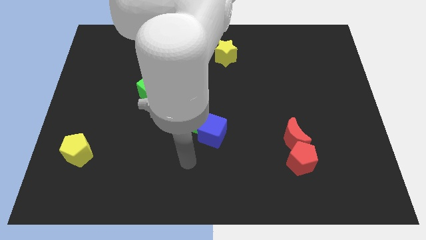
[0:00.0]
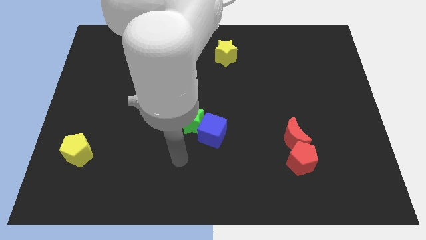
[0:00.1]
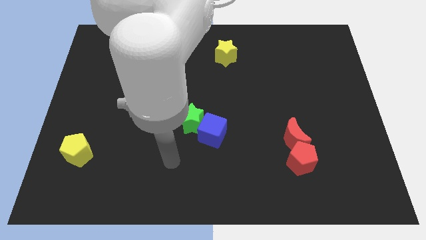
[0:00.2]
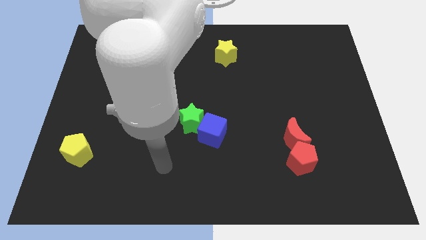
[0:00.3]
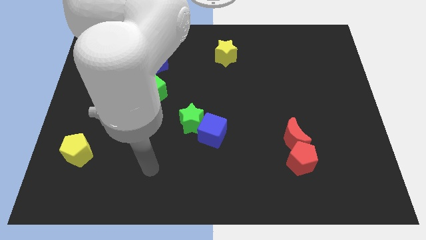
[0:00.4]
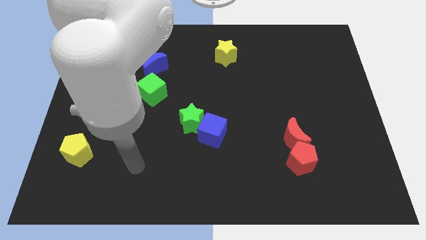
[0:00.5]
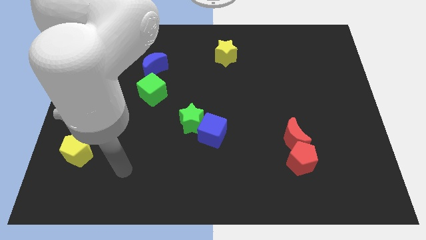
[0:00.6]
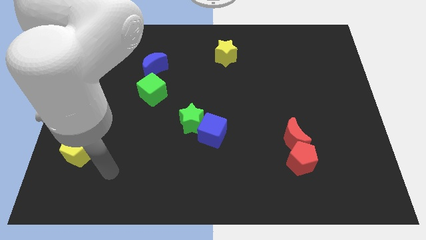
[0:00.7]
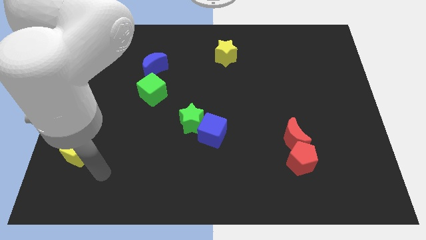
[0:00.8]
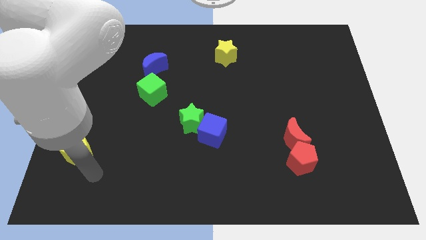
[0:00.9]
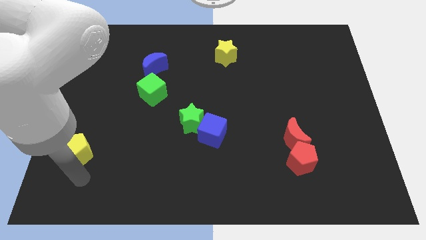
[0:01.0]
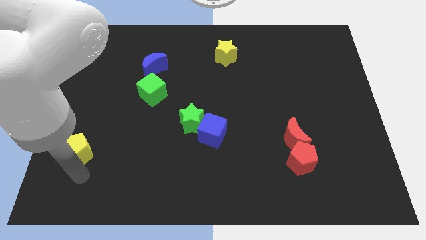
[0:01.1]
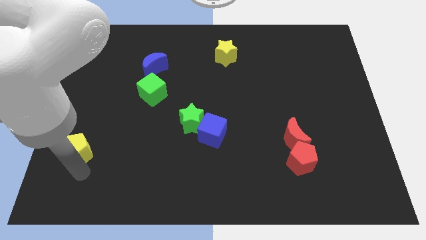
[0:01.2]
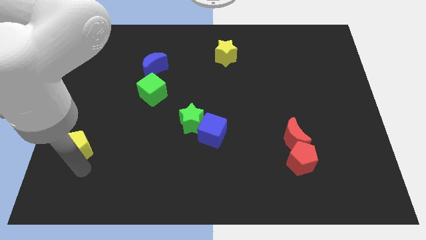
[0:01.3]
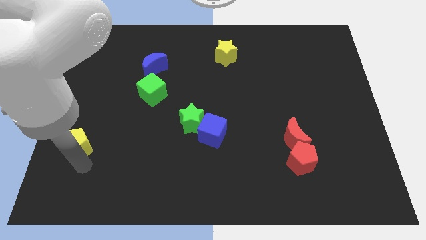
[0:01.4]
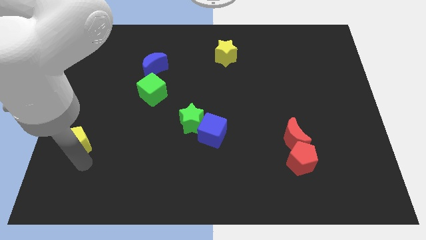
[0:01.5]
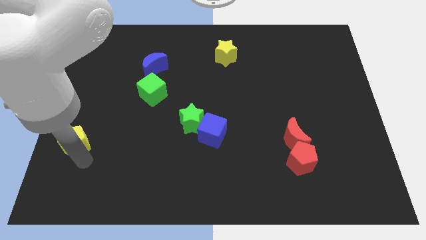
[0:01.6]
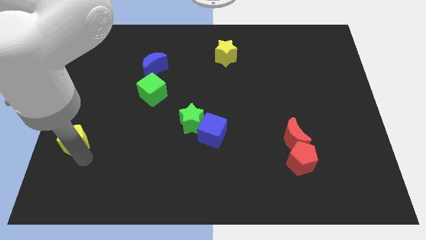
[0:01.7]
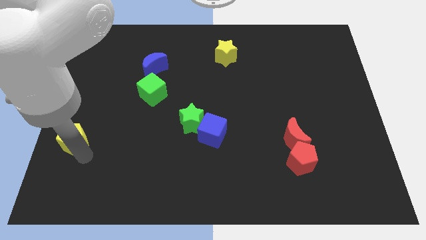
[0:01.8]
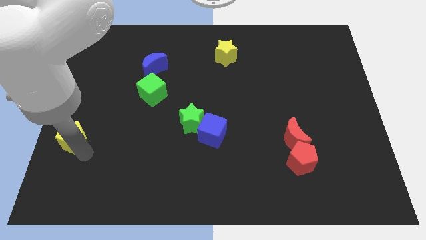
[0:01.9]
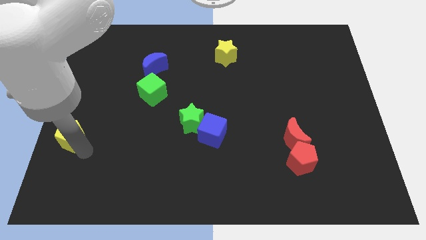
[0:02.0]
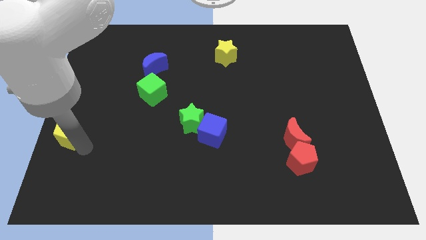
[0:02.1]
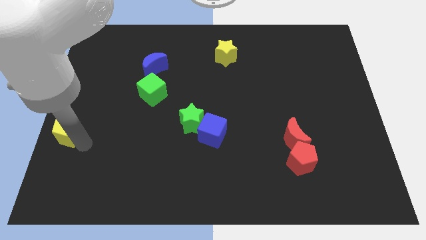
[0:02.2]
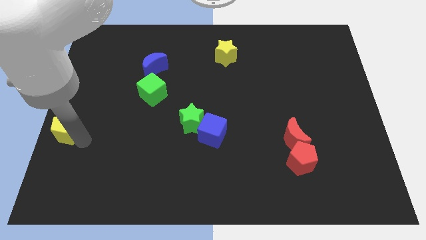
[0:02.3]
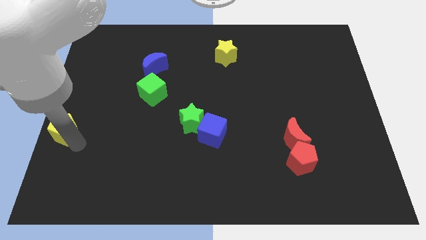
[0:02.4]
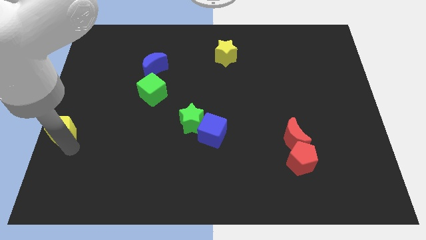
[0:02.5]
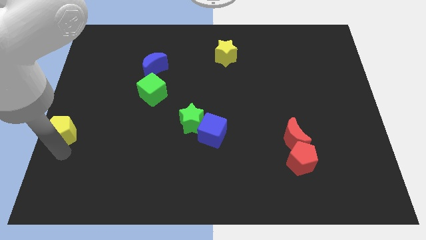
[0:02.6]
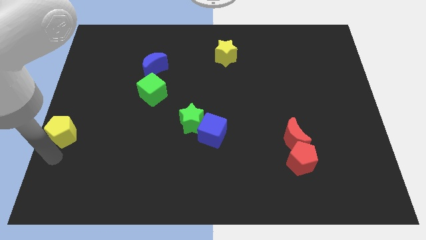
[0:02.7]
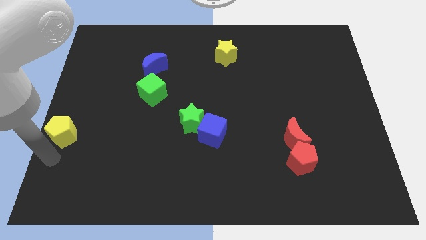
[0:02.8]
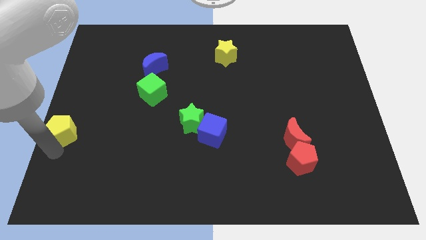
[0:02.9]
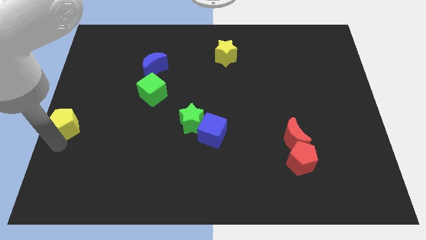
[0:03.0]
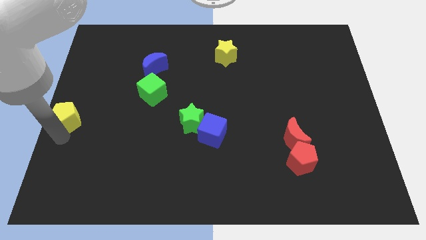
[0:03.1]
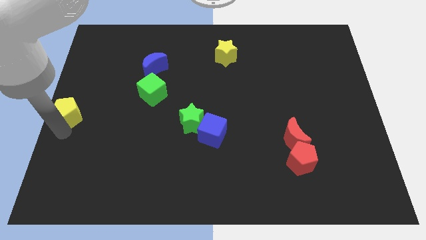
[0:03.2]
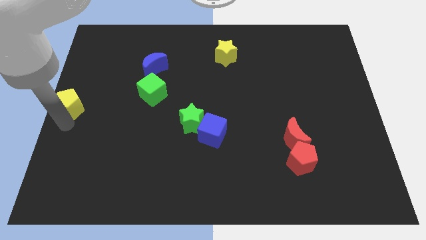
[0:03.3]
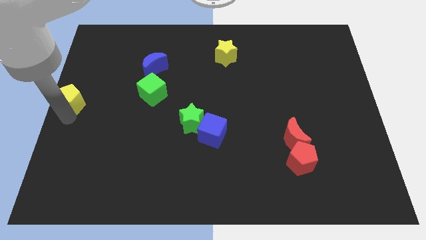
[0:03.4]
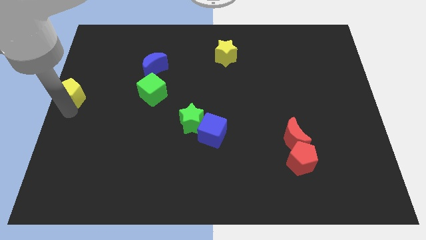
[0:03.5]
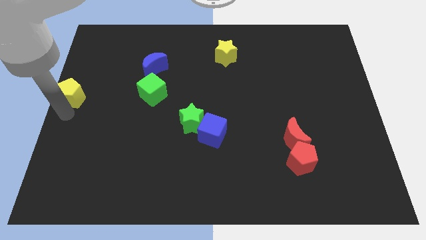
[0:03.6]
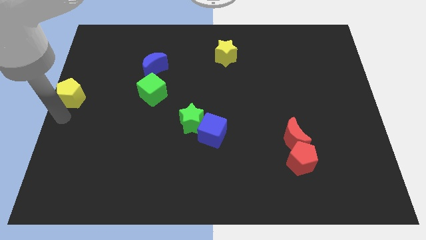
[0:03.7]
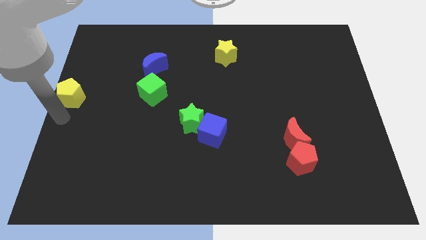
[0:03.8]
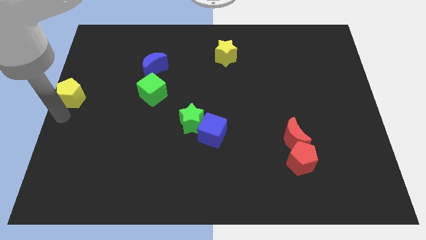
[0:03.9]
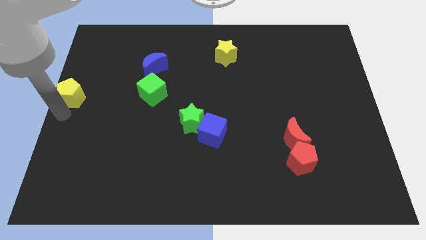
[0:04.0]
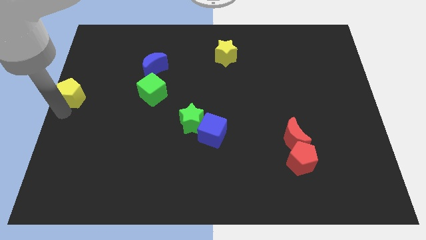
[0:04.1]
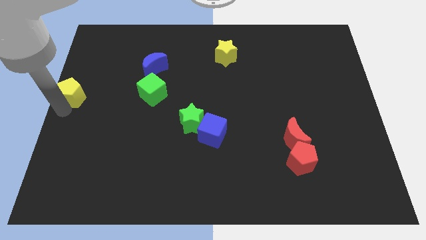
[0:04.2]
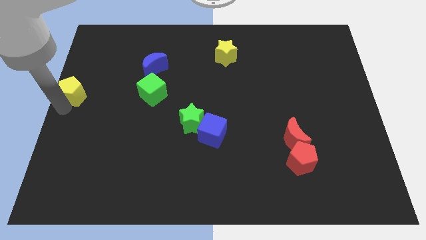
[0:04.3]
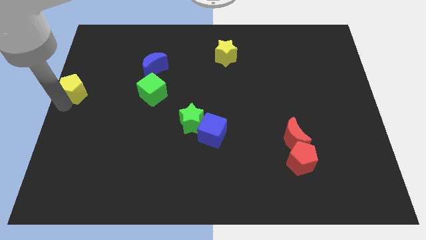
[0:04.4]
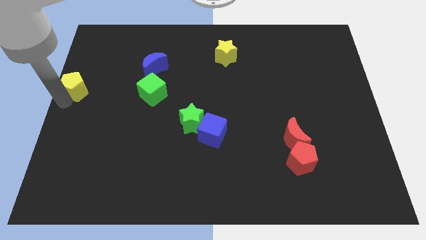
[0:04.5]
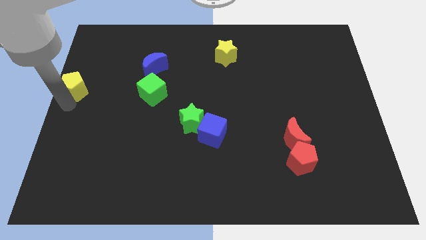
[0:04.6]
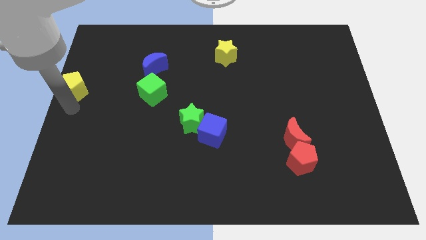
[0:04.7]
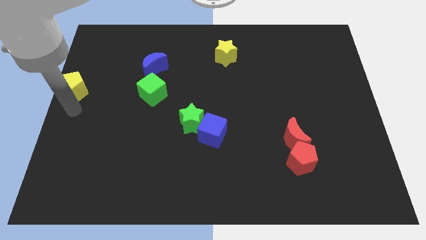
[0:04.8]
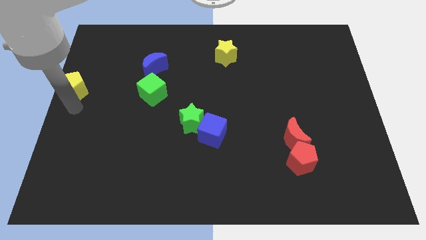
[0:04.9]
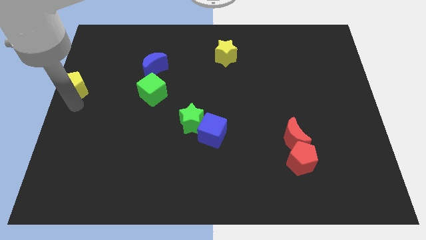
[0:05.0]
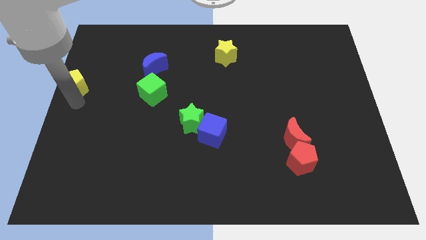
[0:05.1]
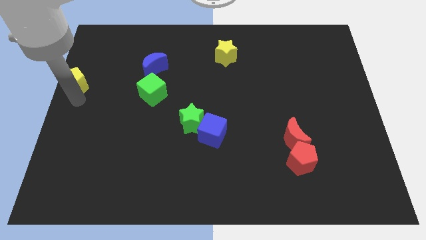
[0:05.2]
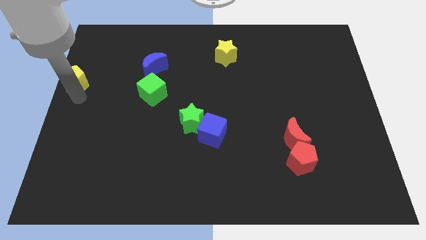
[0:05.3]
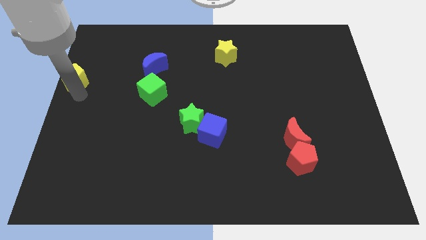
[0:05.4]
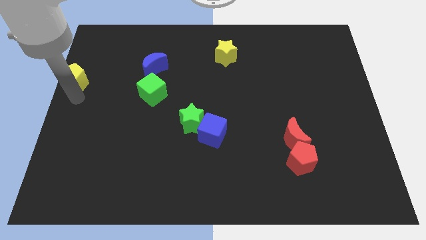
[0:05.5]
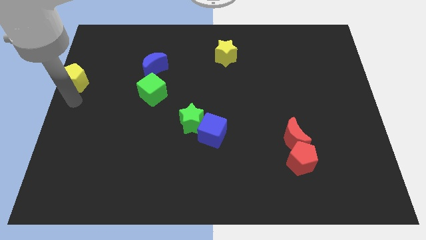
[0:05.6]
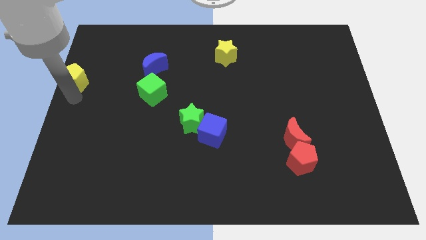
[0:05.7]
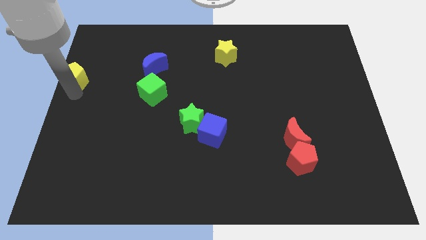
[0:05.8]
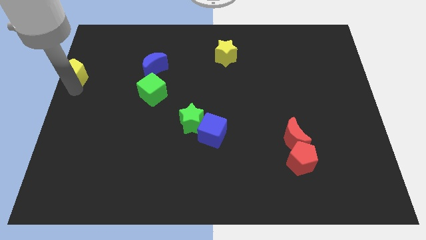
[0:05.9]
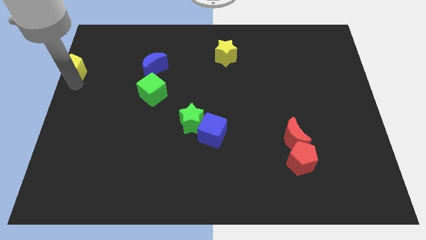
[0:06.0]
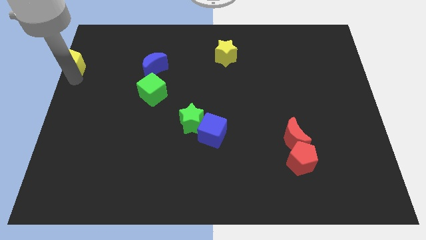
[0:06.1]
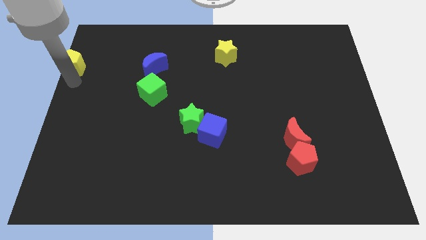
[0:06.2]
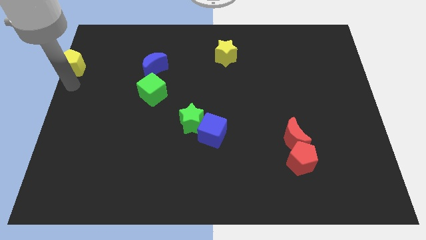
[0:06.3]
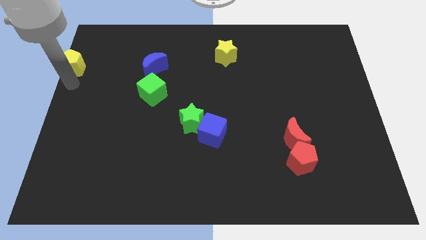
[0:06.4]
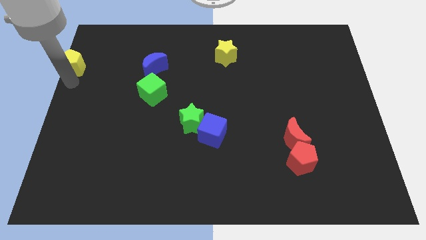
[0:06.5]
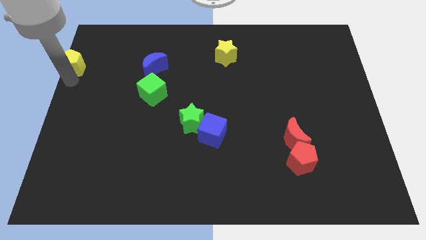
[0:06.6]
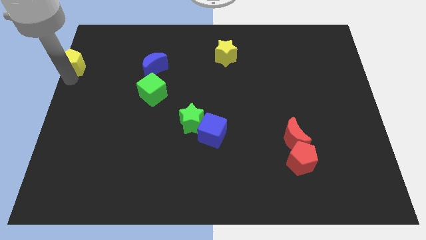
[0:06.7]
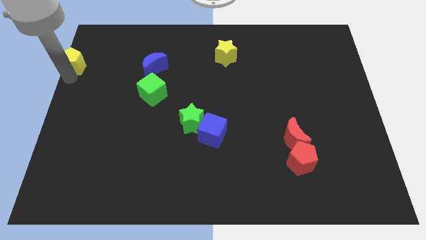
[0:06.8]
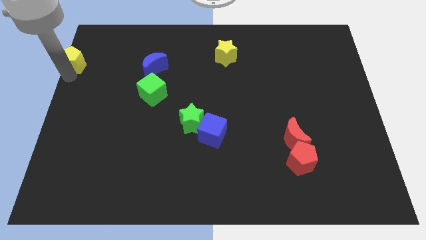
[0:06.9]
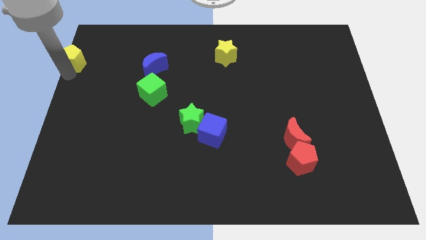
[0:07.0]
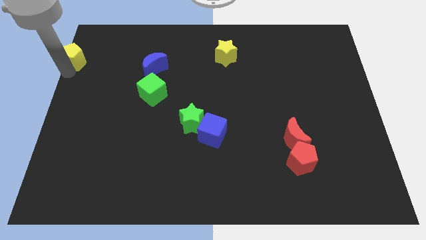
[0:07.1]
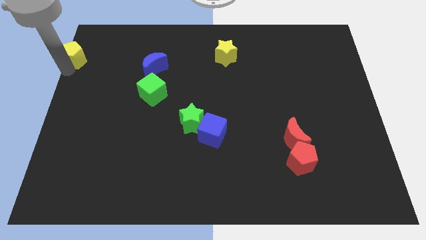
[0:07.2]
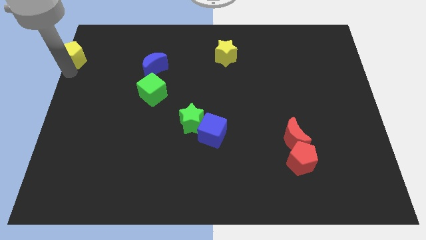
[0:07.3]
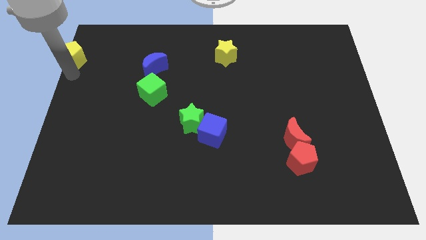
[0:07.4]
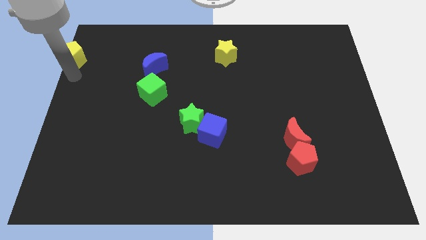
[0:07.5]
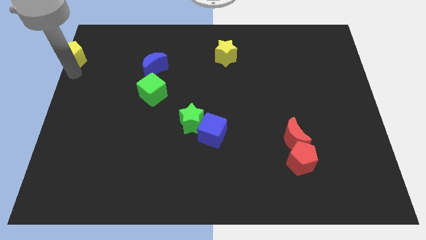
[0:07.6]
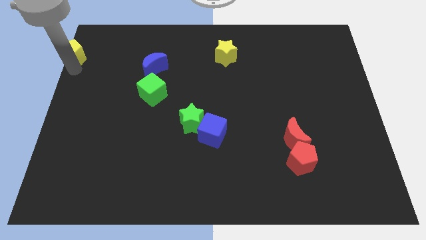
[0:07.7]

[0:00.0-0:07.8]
move the yellow pentagon to the top left corner
